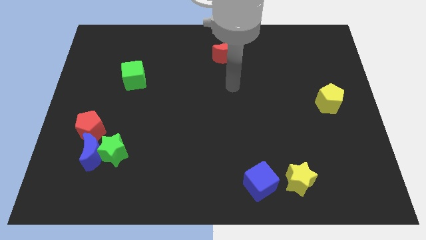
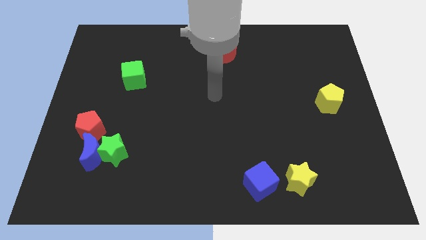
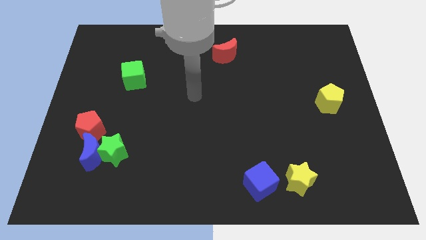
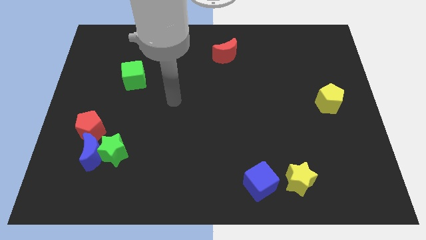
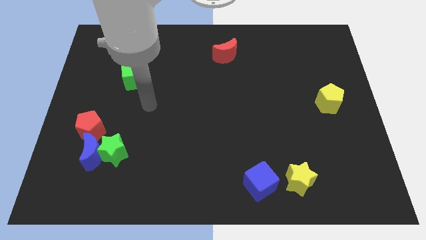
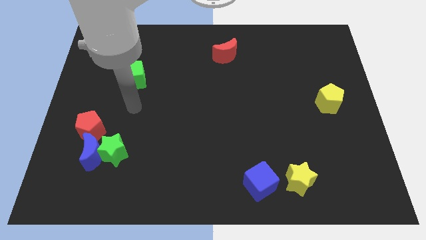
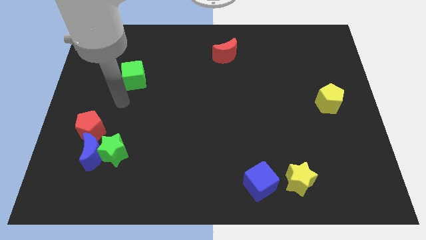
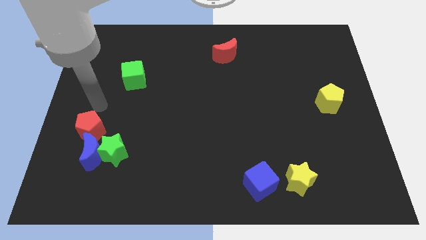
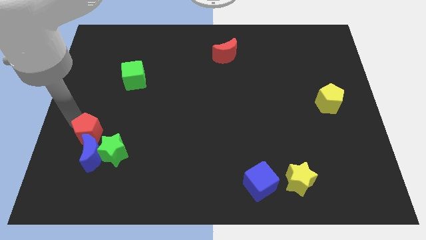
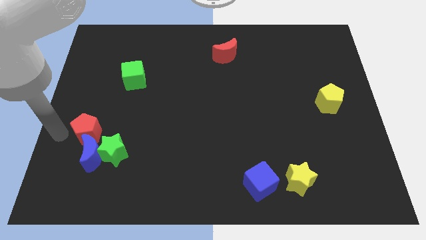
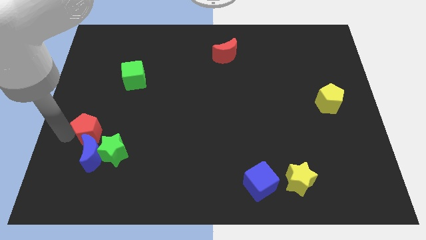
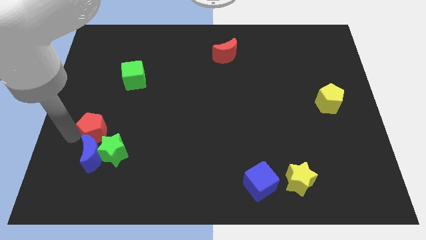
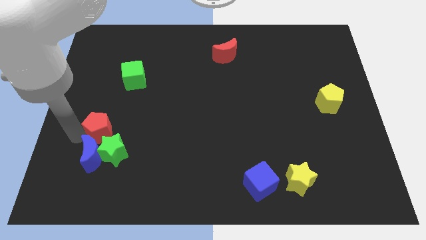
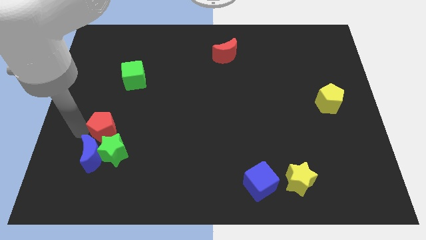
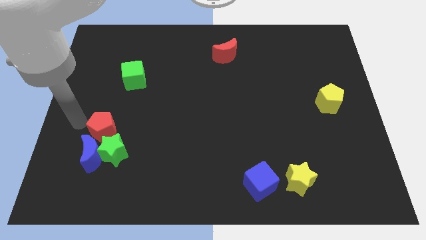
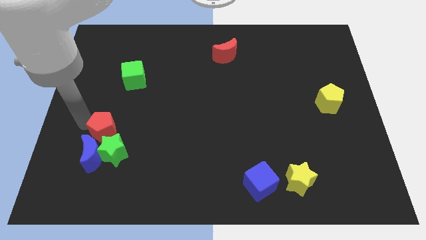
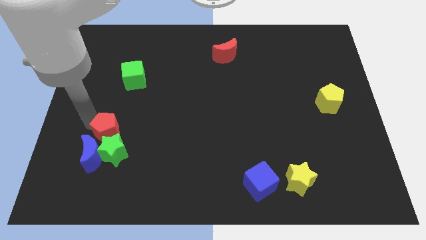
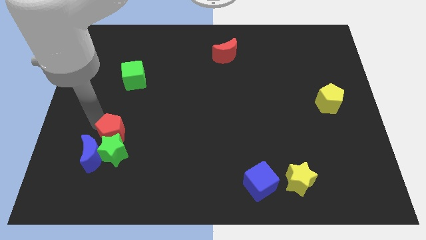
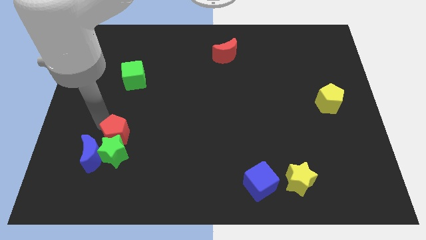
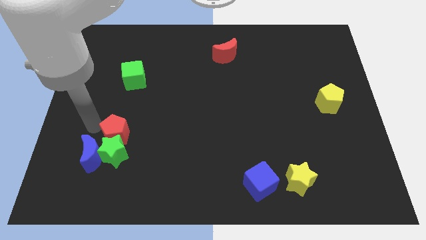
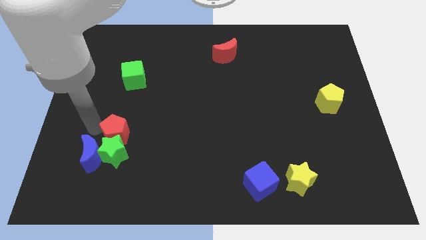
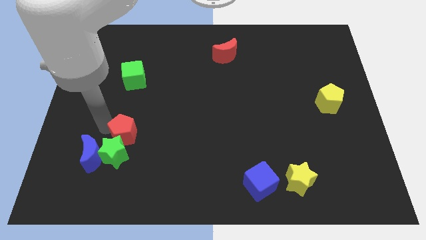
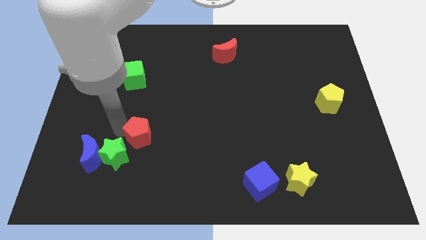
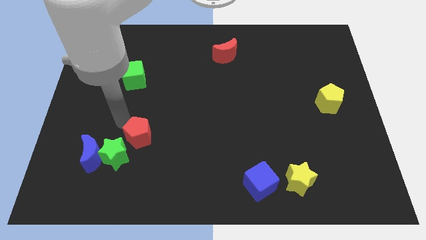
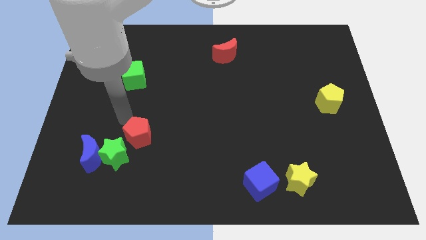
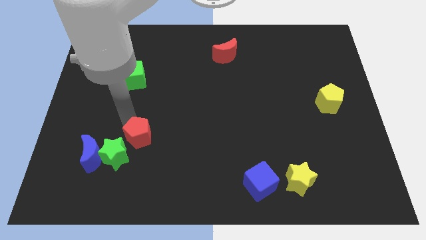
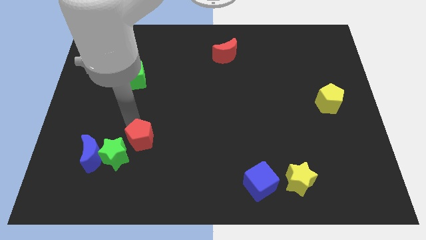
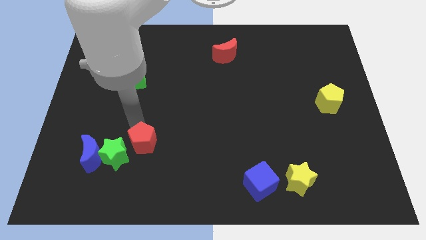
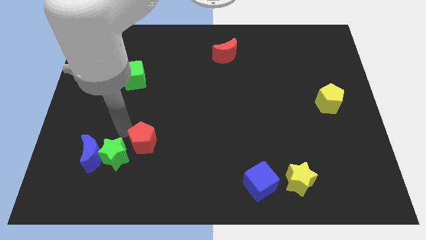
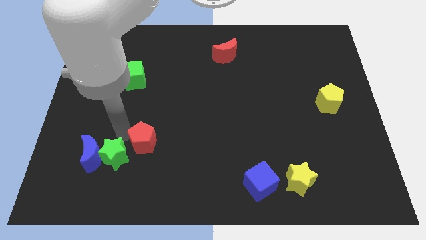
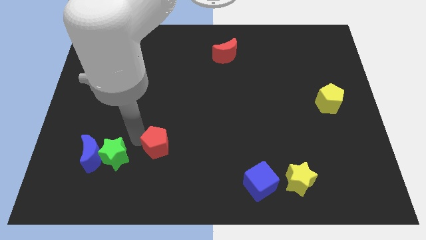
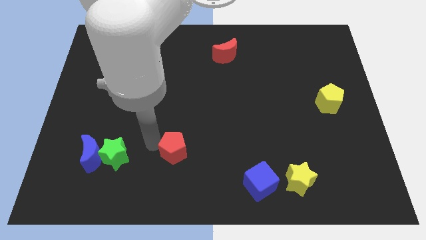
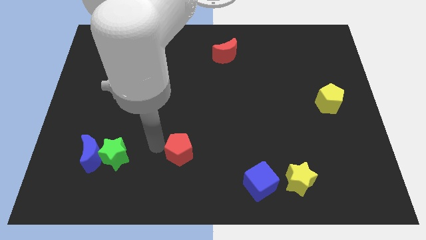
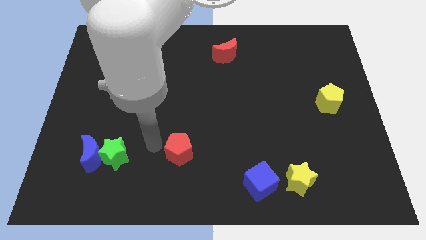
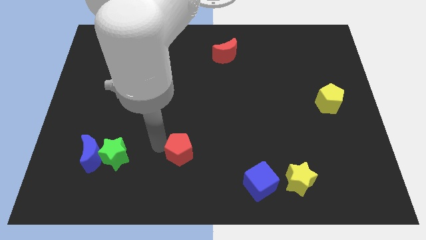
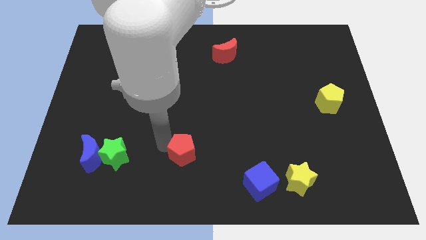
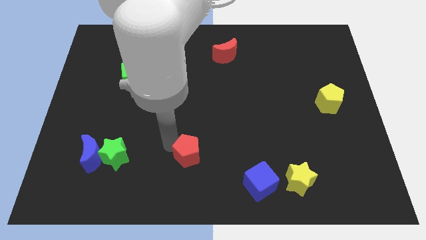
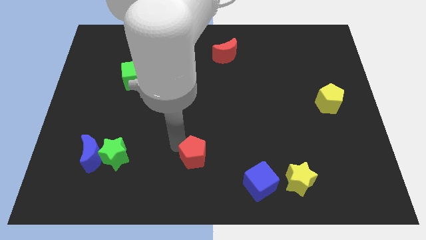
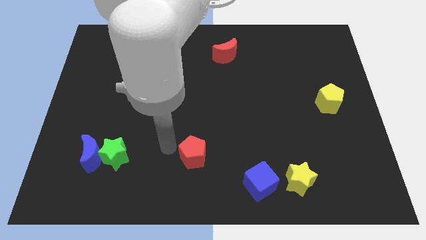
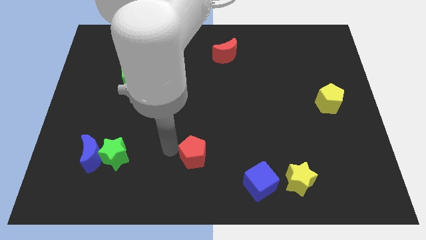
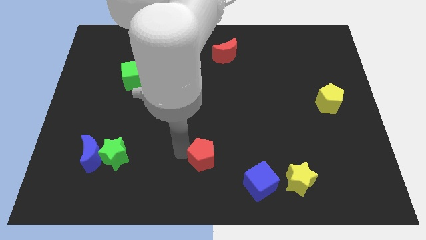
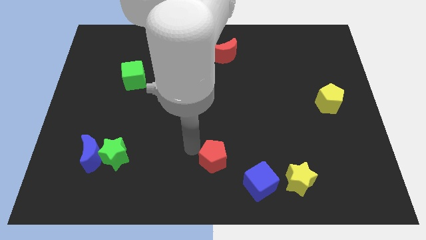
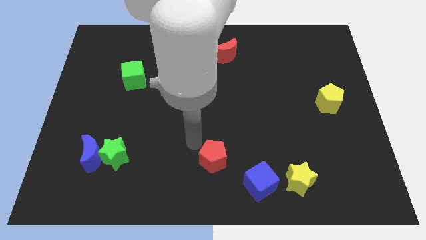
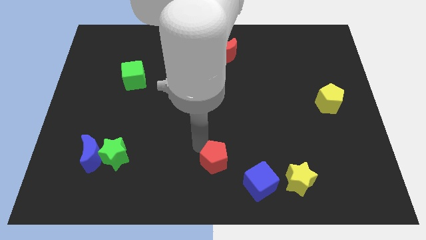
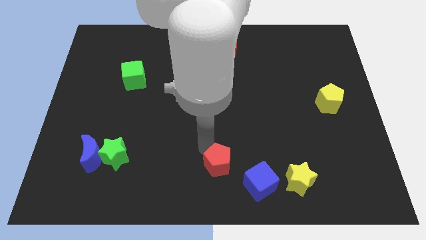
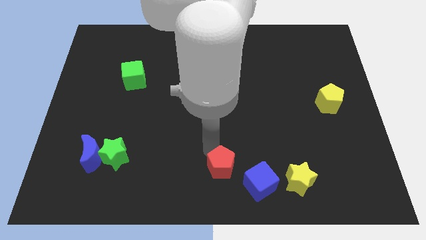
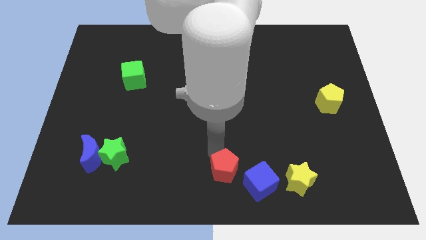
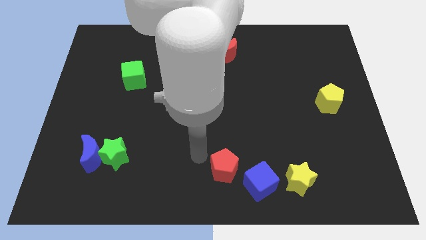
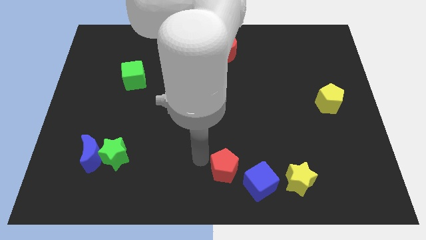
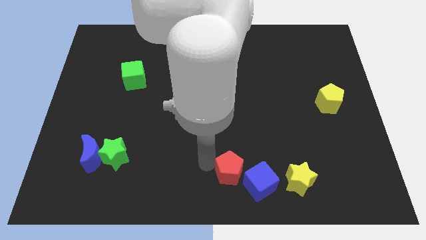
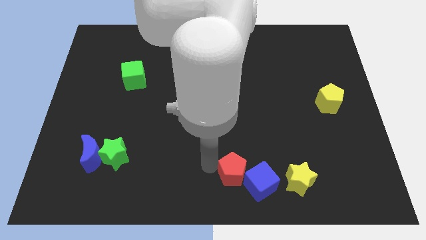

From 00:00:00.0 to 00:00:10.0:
push the red pentagon close to the blue cube

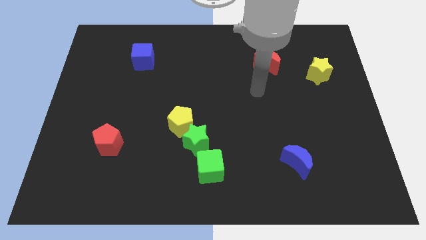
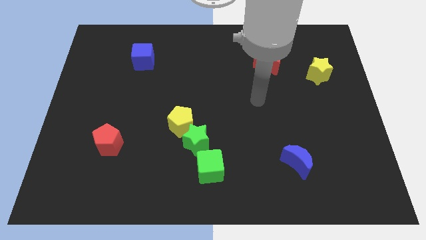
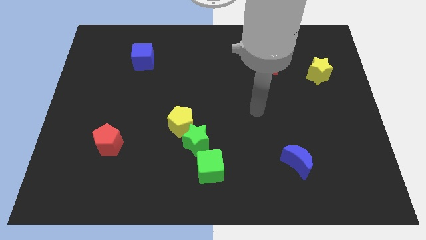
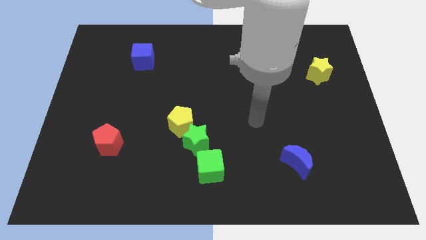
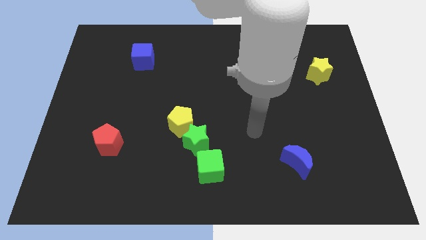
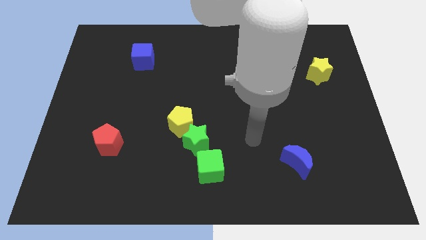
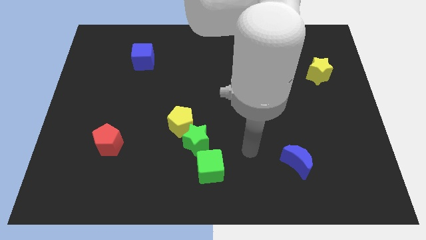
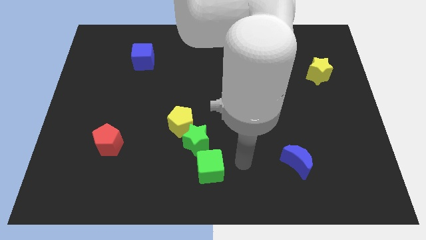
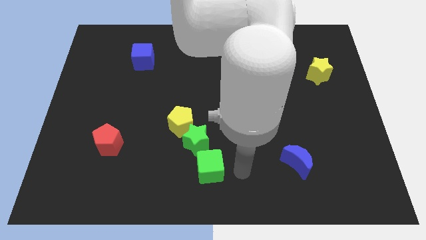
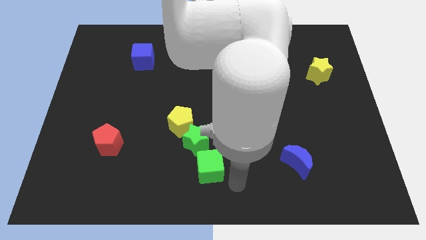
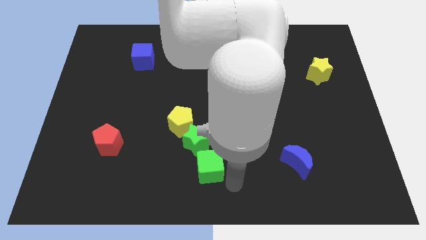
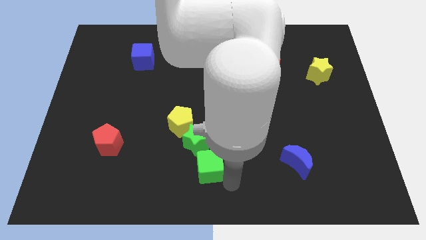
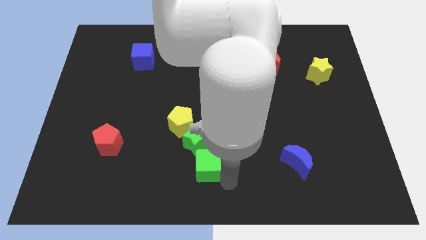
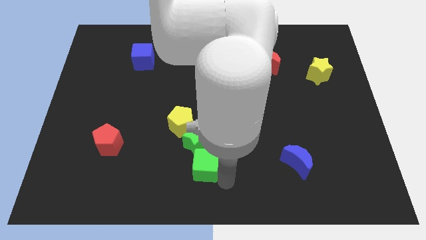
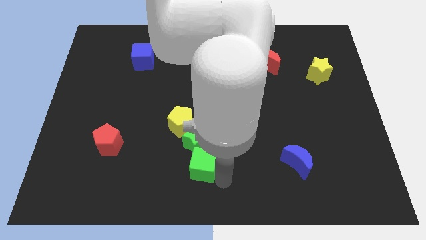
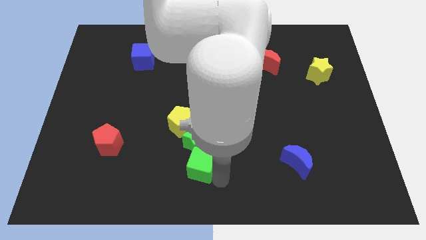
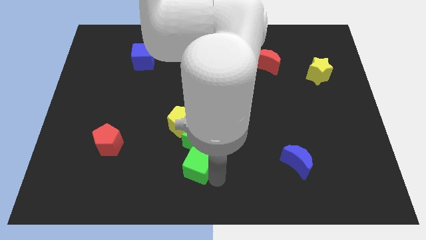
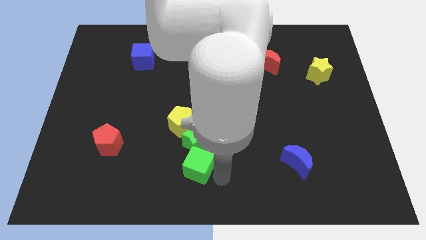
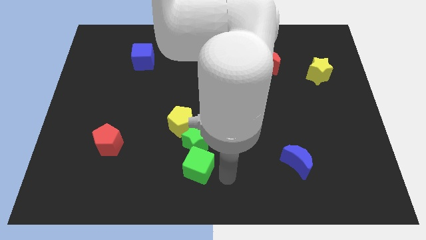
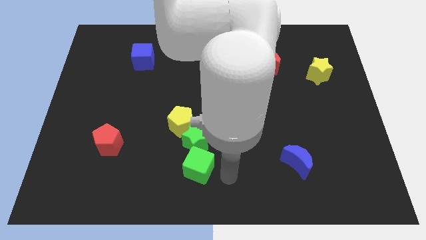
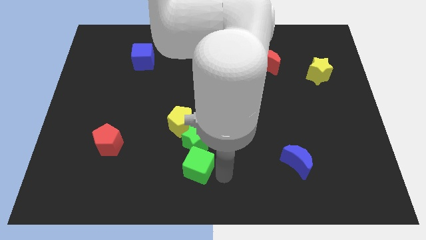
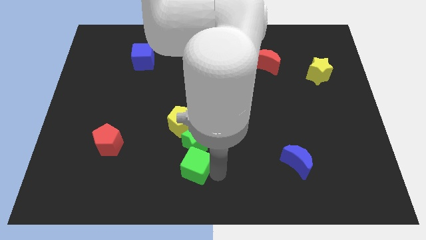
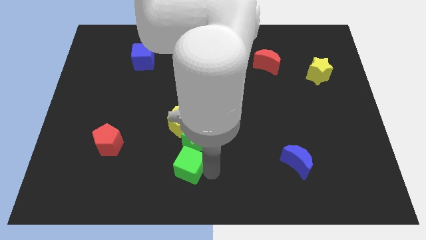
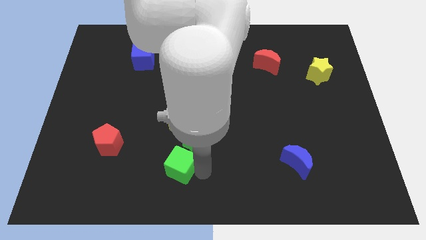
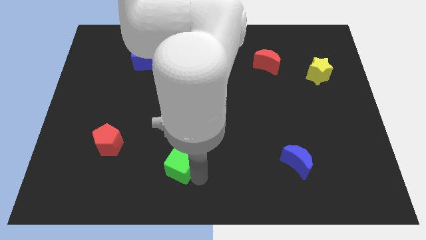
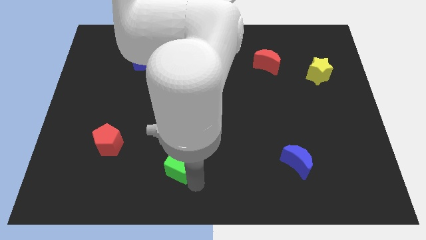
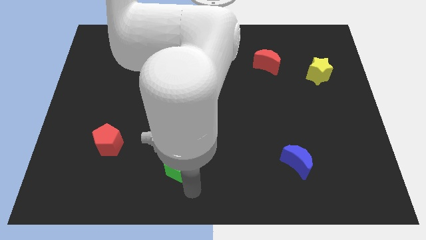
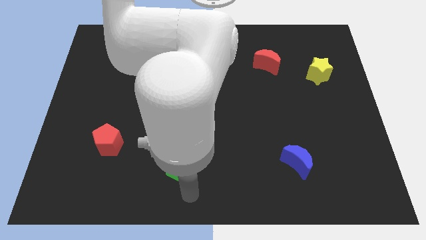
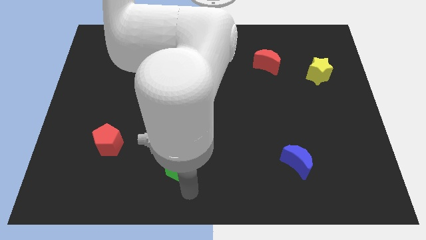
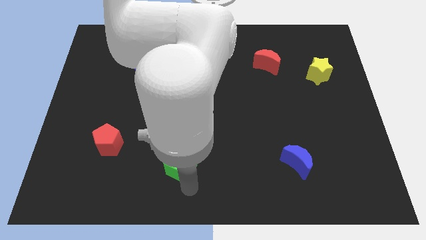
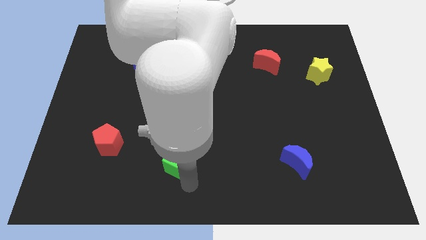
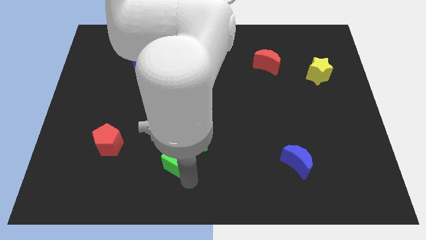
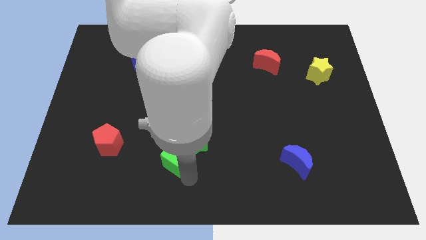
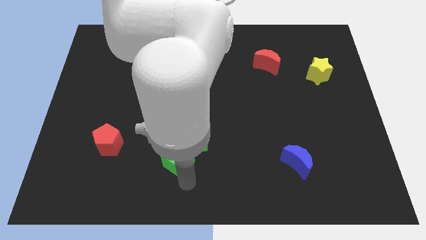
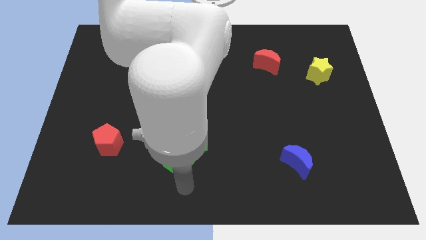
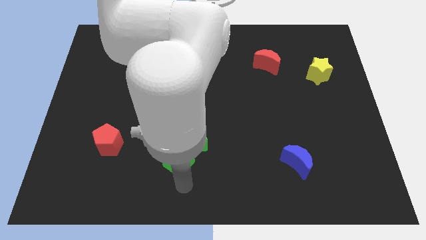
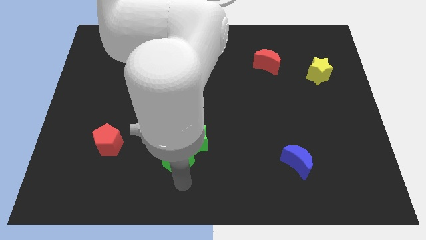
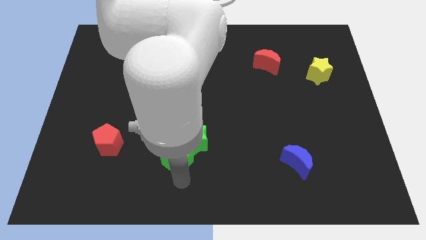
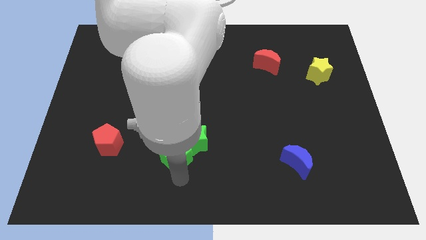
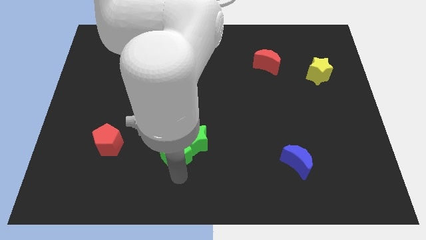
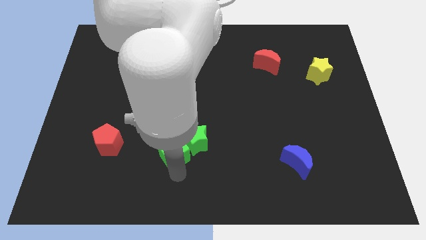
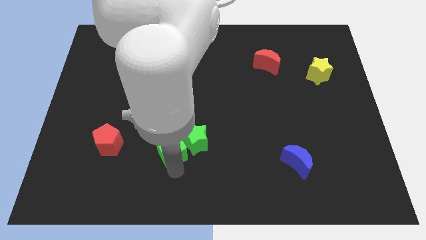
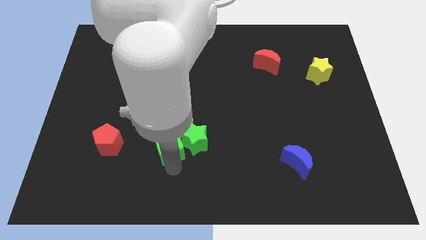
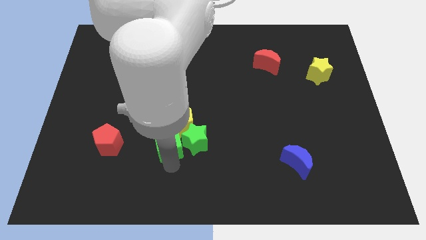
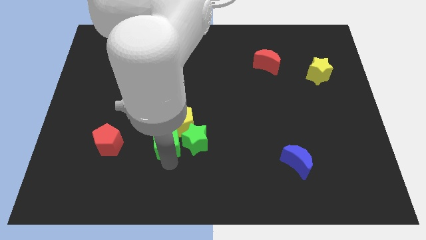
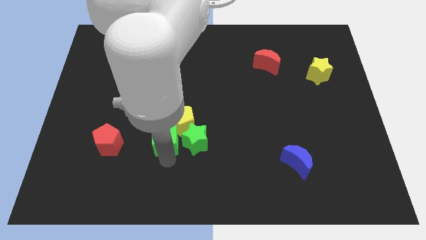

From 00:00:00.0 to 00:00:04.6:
move the green cube next to the yellow pentagon
